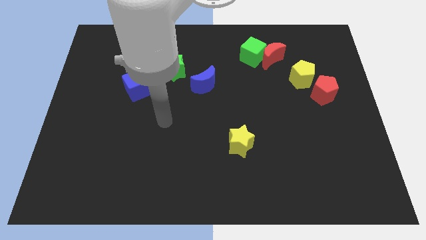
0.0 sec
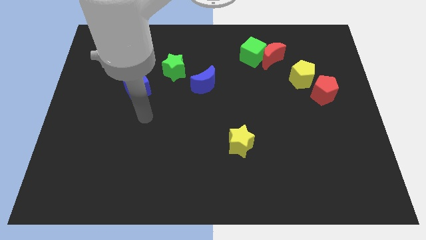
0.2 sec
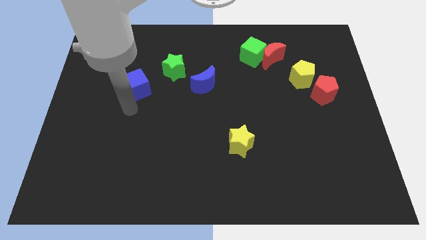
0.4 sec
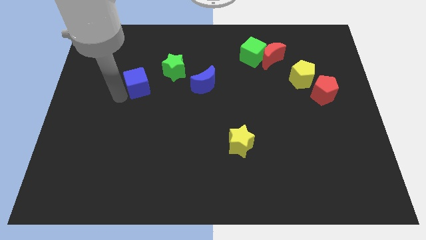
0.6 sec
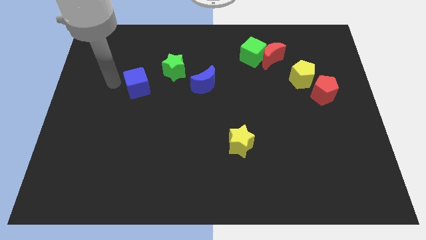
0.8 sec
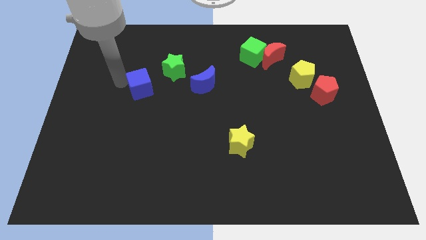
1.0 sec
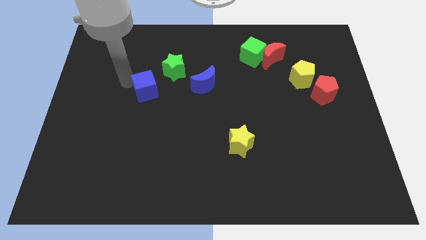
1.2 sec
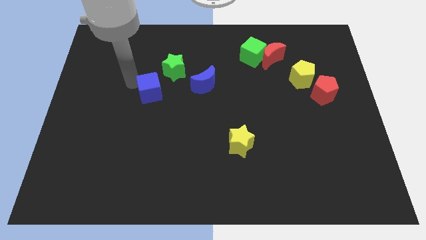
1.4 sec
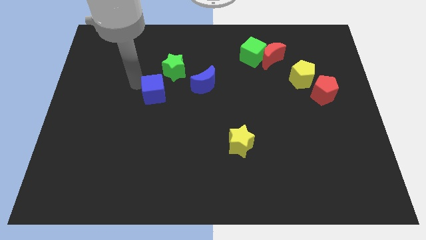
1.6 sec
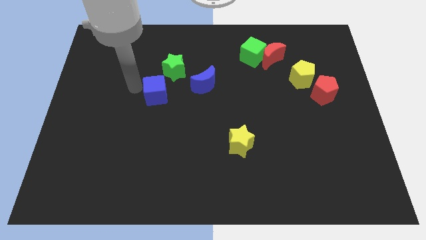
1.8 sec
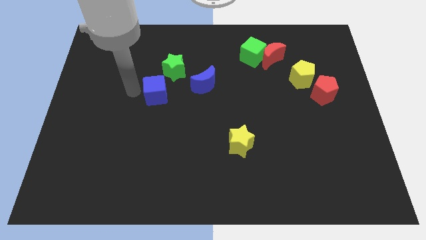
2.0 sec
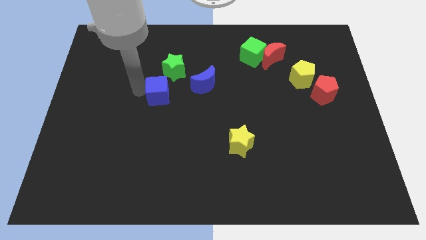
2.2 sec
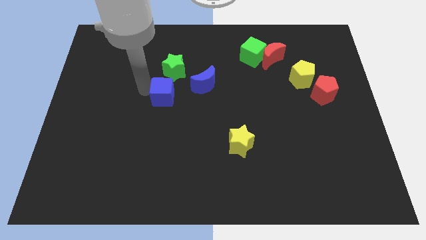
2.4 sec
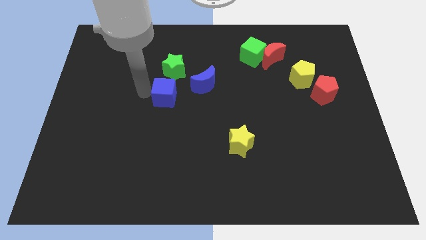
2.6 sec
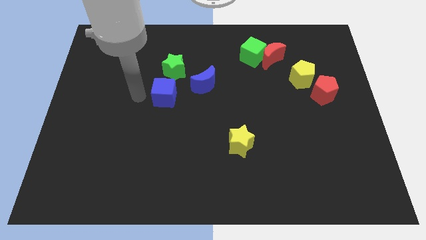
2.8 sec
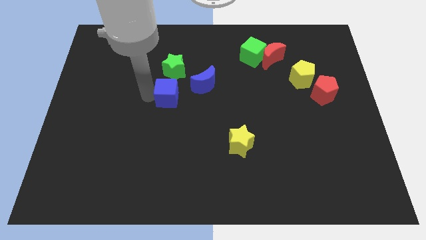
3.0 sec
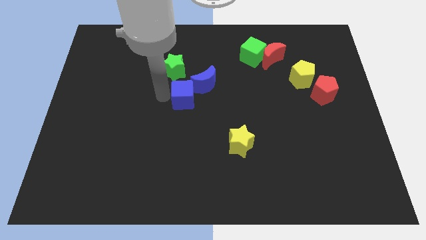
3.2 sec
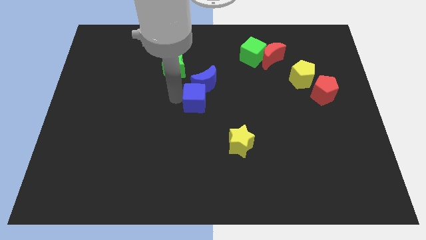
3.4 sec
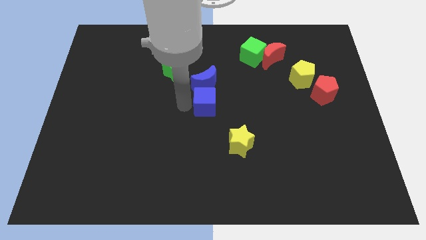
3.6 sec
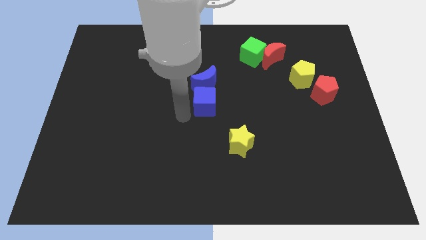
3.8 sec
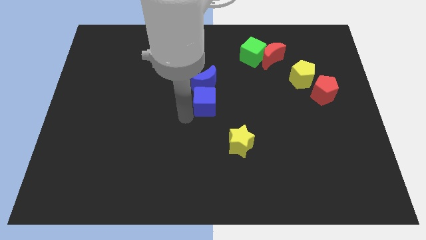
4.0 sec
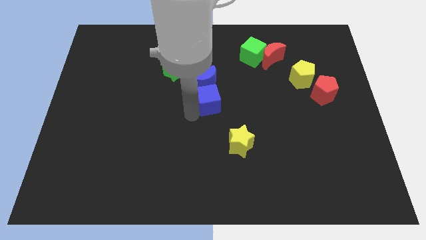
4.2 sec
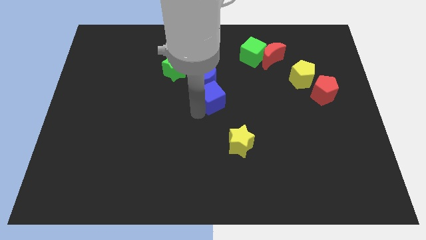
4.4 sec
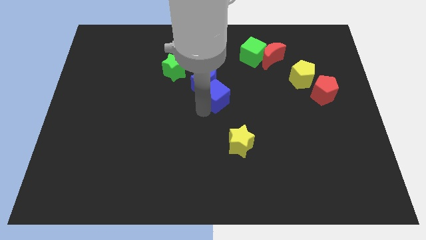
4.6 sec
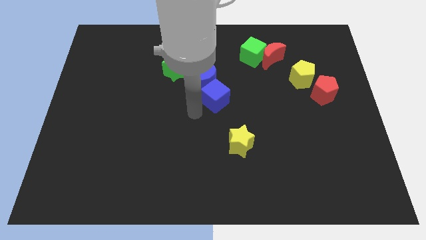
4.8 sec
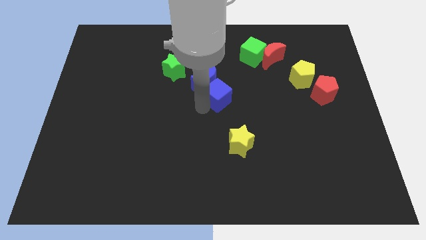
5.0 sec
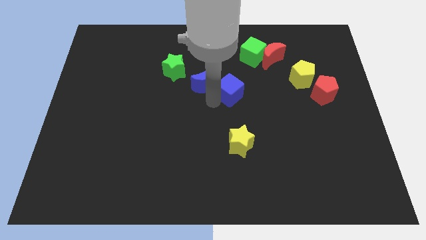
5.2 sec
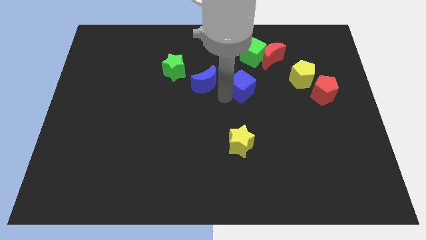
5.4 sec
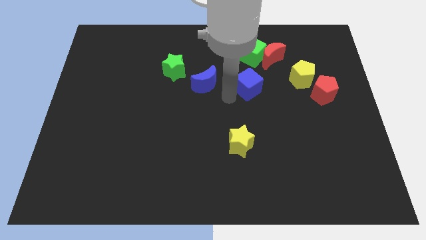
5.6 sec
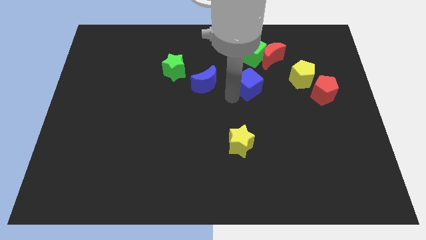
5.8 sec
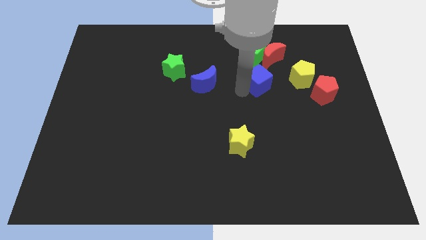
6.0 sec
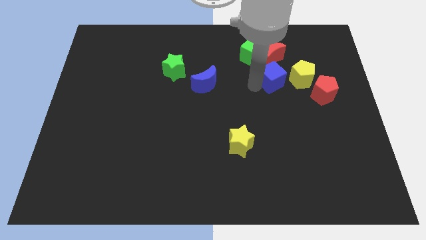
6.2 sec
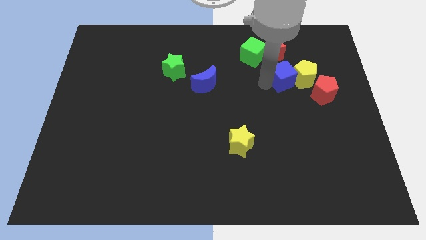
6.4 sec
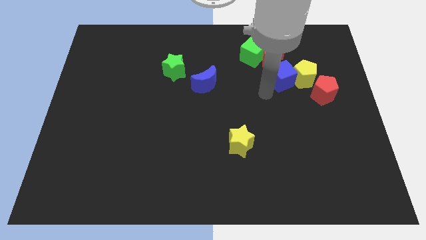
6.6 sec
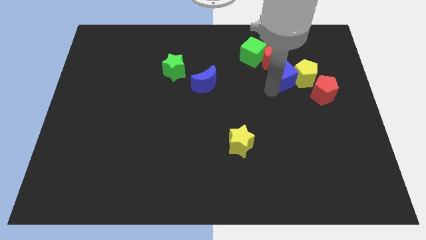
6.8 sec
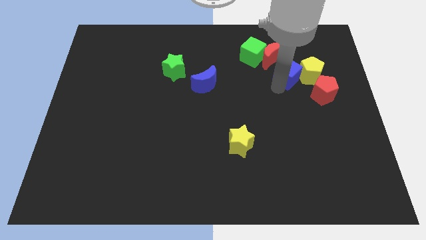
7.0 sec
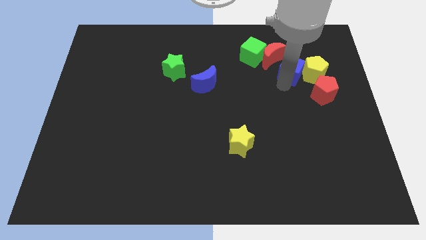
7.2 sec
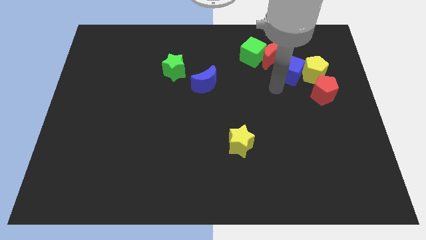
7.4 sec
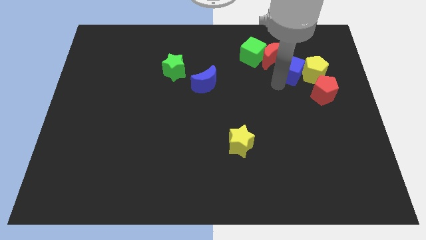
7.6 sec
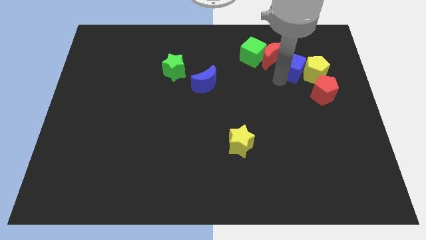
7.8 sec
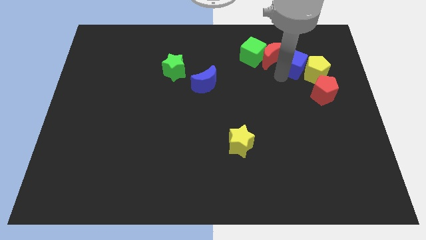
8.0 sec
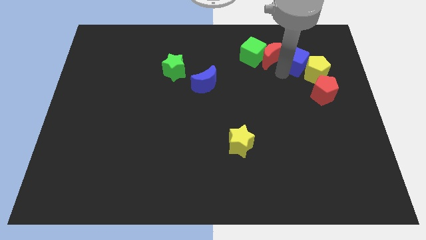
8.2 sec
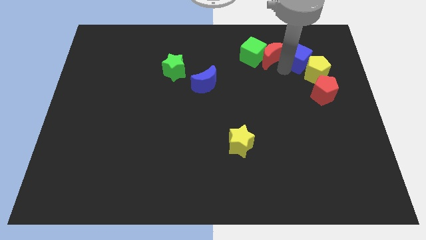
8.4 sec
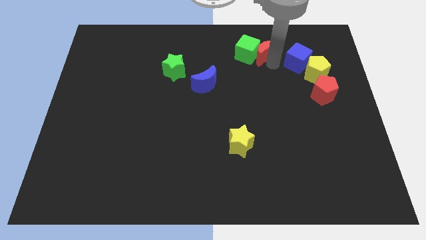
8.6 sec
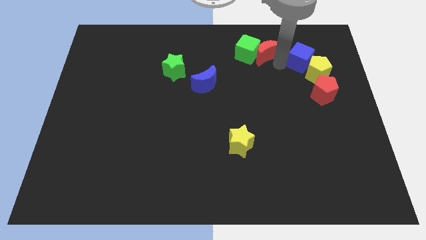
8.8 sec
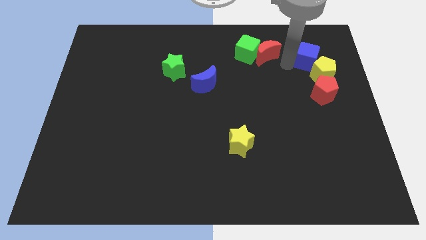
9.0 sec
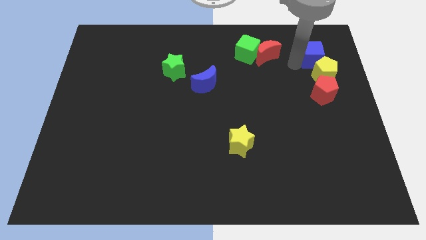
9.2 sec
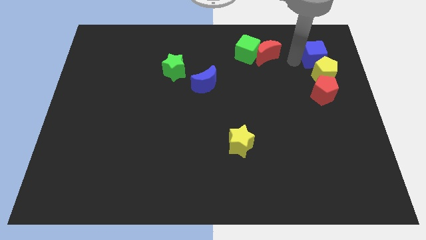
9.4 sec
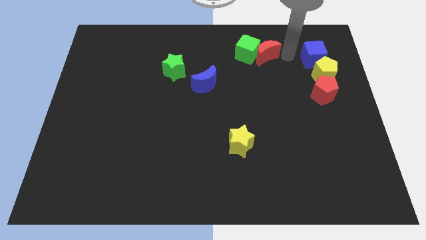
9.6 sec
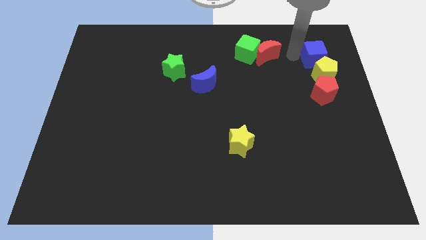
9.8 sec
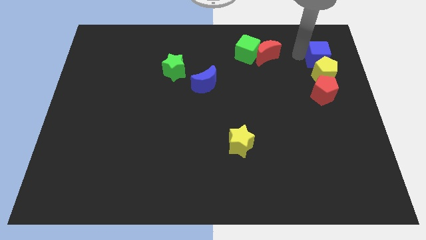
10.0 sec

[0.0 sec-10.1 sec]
push the blue cube to the top right side of the yellow pentagon

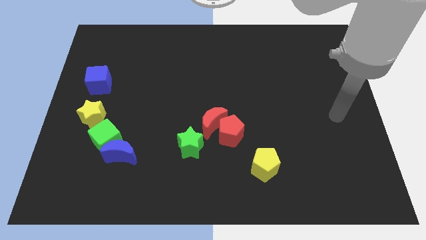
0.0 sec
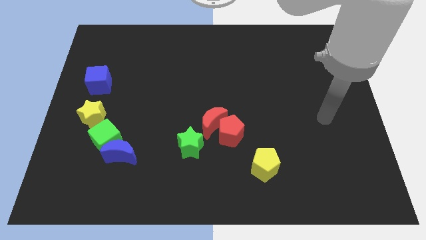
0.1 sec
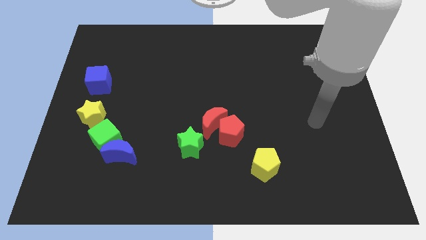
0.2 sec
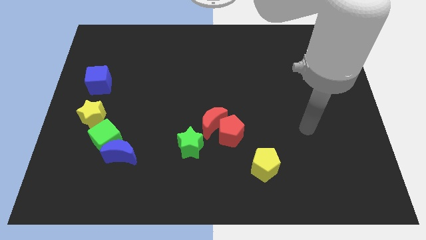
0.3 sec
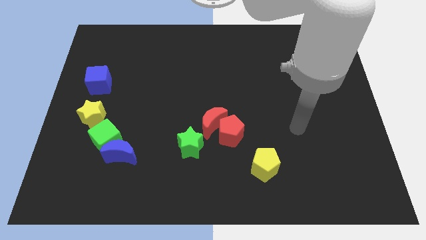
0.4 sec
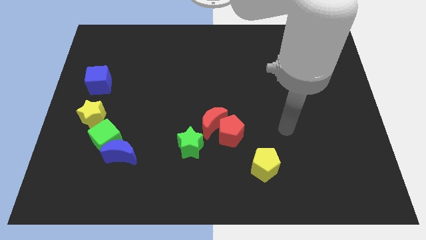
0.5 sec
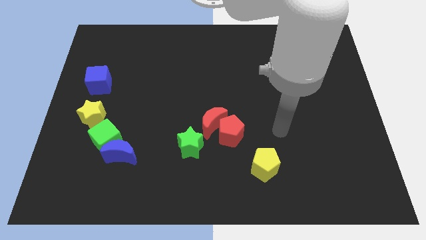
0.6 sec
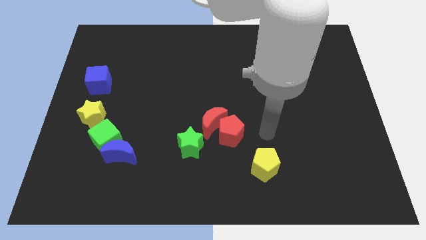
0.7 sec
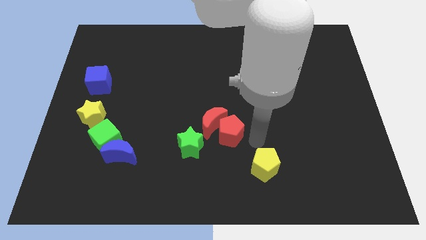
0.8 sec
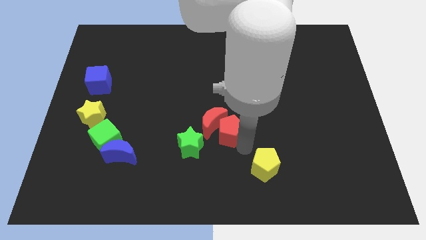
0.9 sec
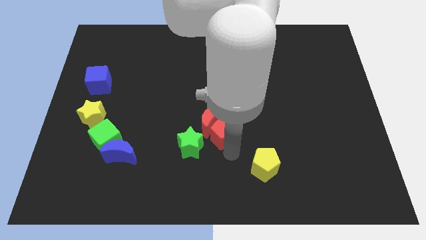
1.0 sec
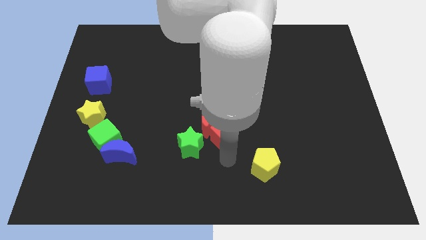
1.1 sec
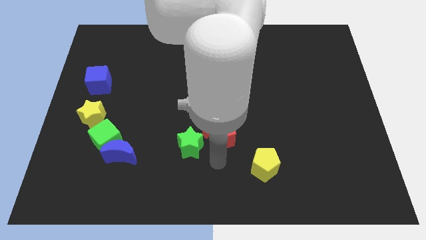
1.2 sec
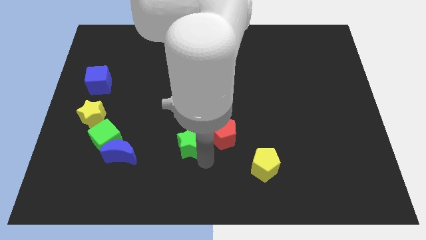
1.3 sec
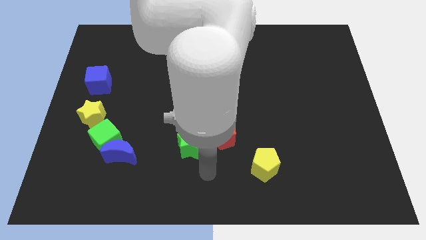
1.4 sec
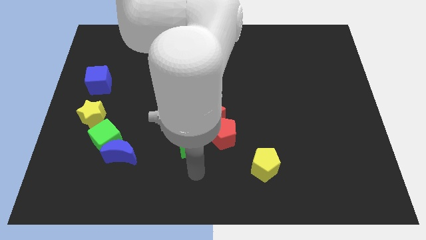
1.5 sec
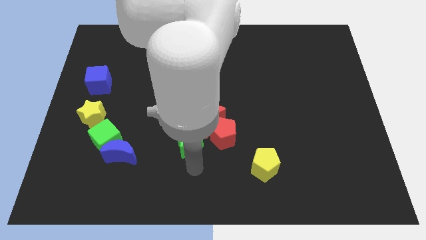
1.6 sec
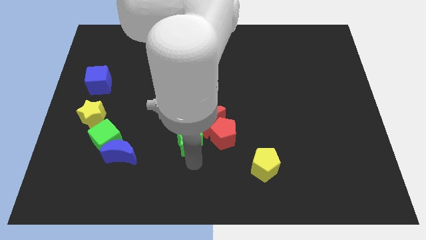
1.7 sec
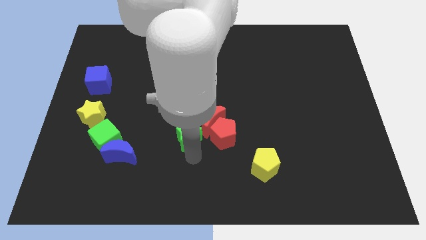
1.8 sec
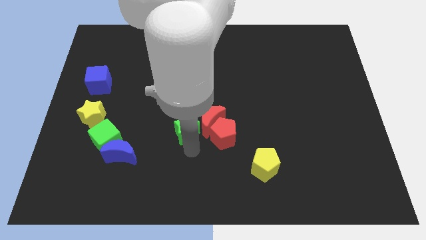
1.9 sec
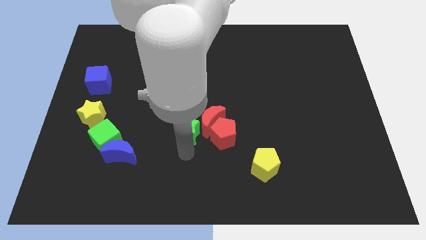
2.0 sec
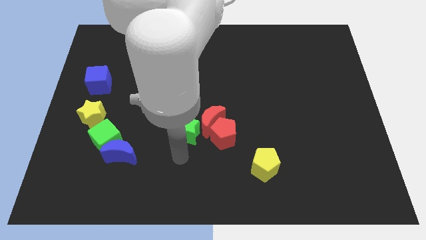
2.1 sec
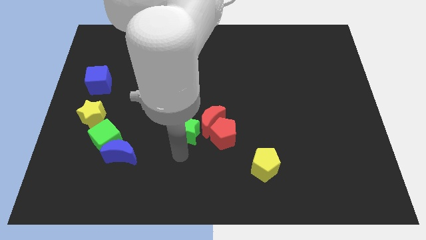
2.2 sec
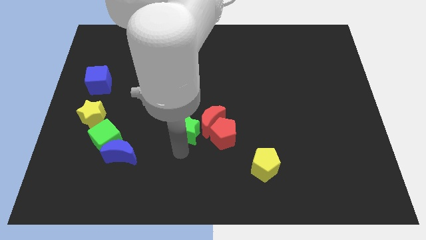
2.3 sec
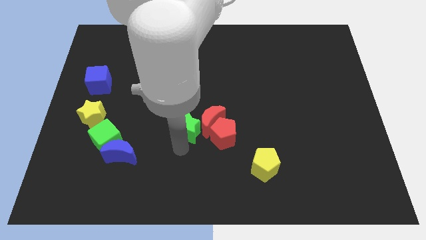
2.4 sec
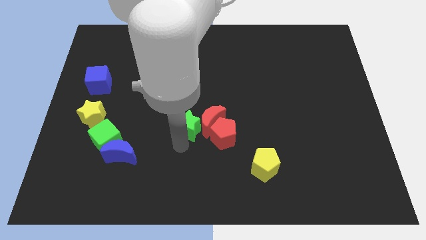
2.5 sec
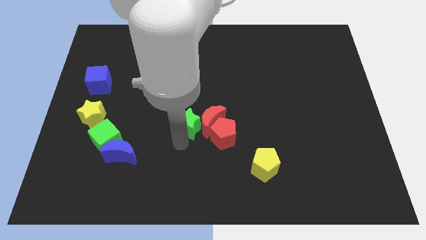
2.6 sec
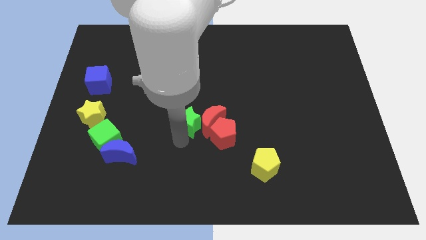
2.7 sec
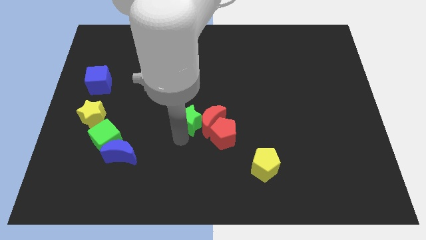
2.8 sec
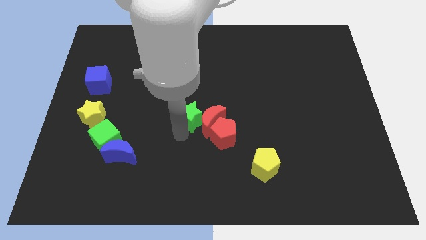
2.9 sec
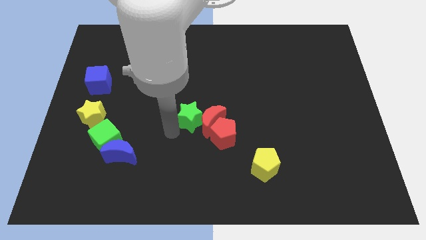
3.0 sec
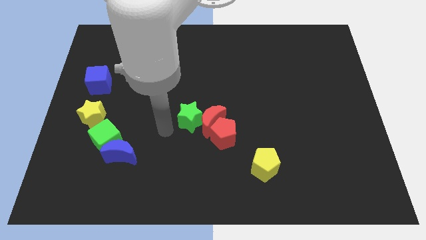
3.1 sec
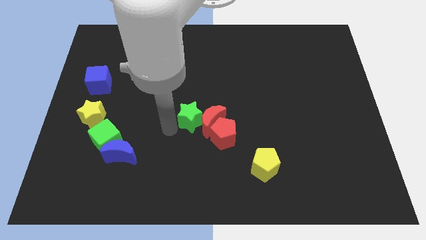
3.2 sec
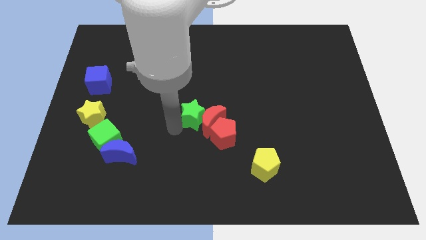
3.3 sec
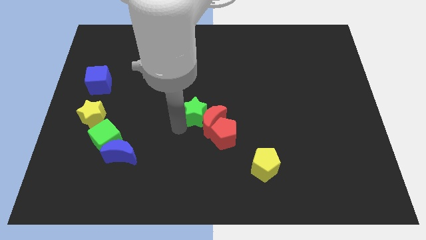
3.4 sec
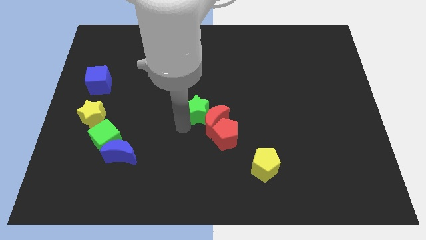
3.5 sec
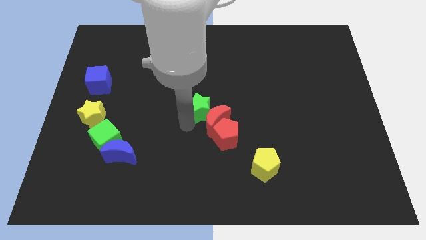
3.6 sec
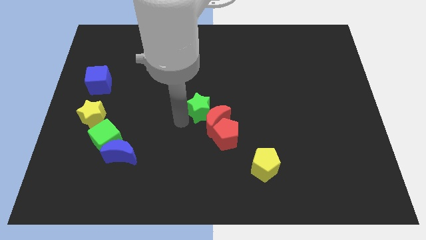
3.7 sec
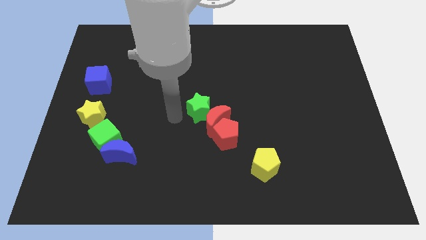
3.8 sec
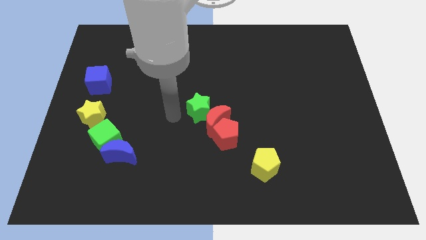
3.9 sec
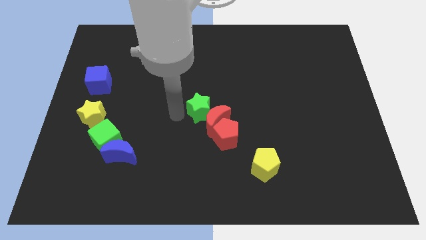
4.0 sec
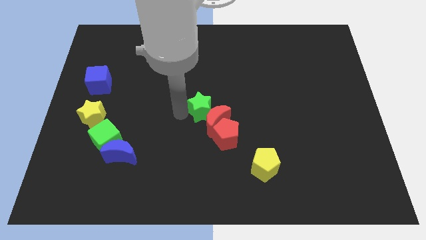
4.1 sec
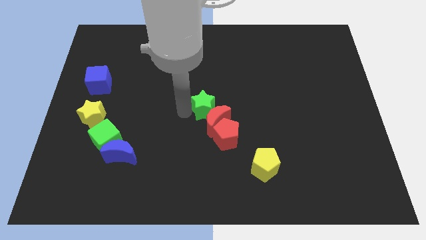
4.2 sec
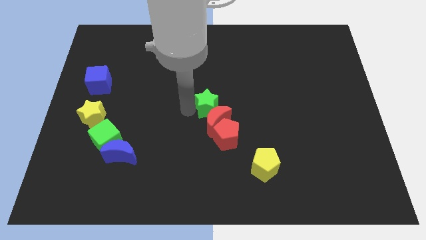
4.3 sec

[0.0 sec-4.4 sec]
push the green star to the top right side of the red moon
